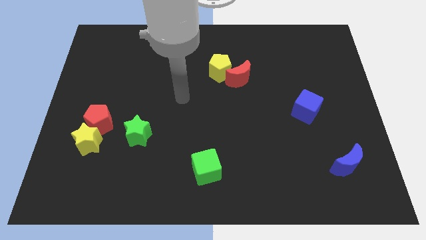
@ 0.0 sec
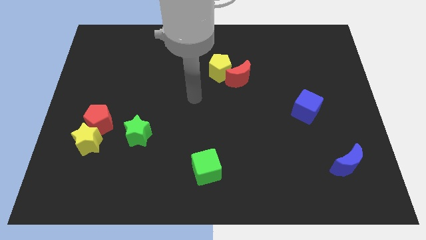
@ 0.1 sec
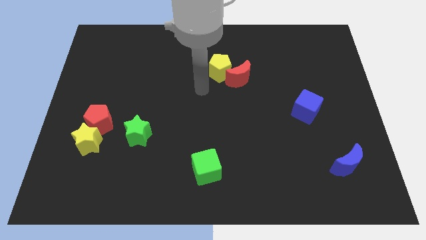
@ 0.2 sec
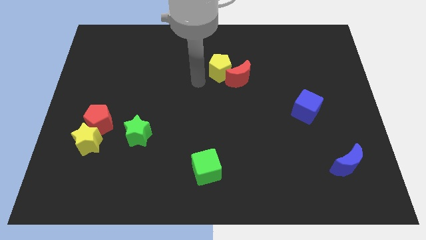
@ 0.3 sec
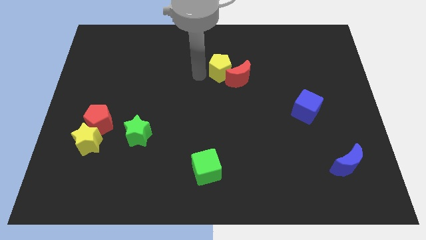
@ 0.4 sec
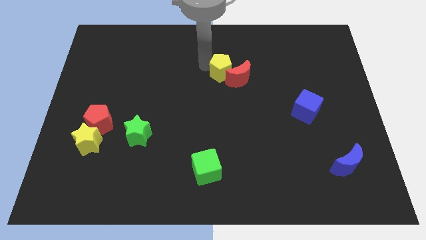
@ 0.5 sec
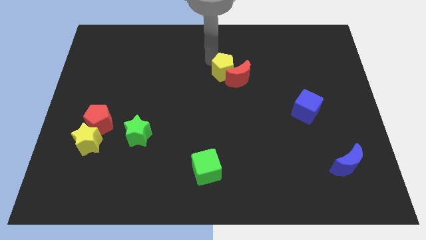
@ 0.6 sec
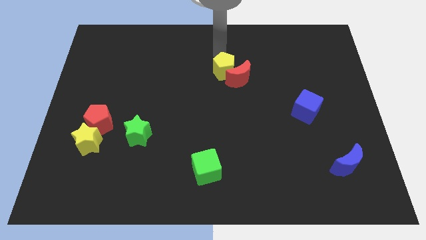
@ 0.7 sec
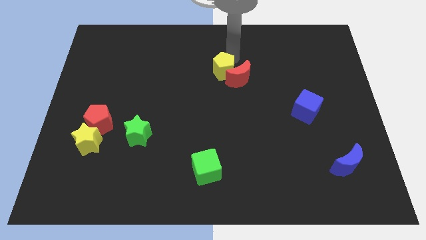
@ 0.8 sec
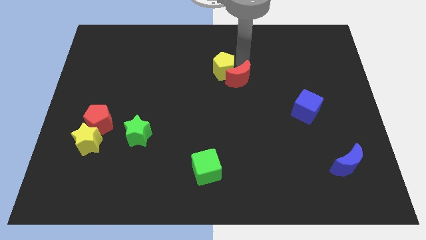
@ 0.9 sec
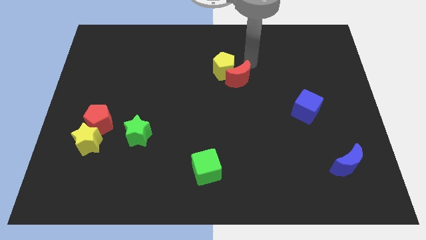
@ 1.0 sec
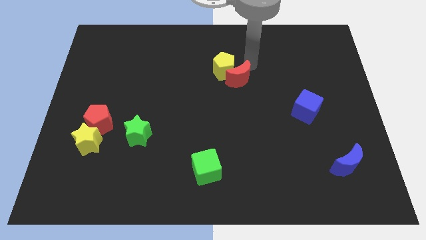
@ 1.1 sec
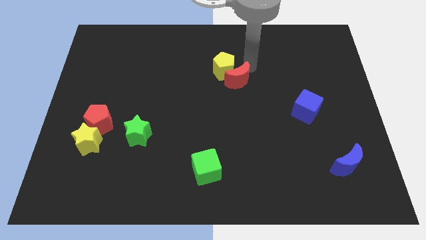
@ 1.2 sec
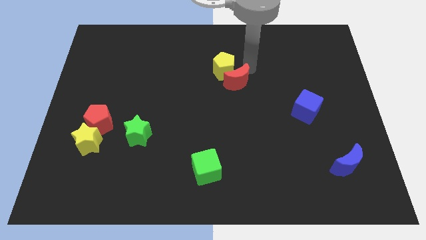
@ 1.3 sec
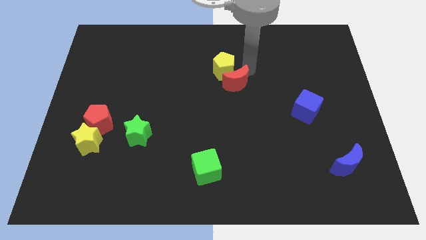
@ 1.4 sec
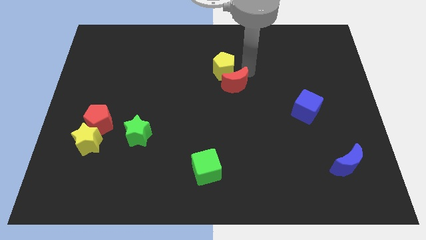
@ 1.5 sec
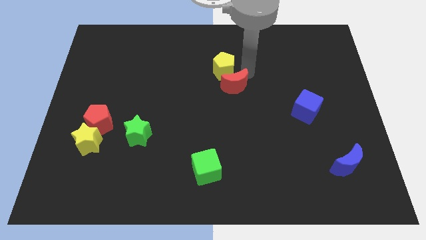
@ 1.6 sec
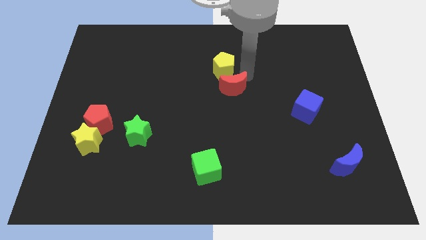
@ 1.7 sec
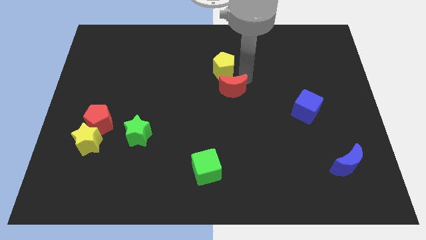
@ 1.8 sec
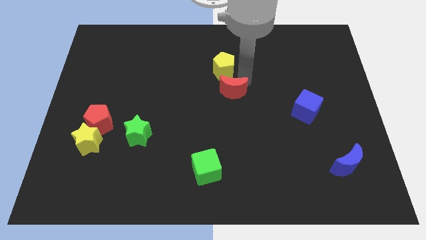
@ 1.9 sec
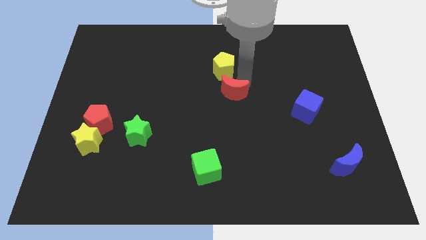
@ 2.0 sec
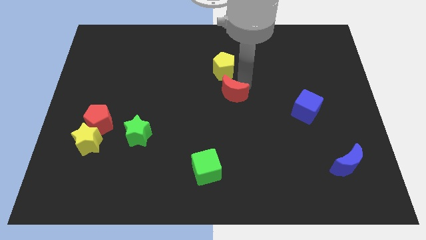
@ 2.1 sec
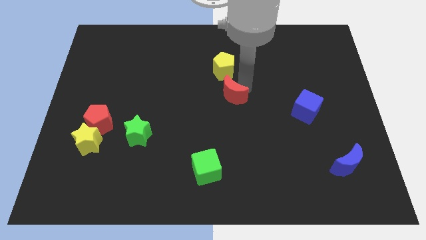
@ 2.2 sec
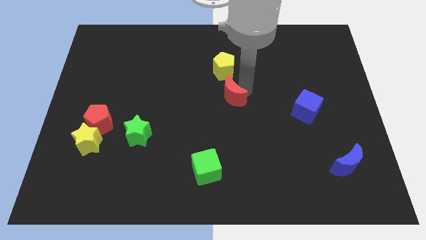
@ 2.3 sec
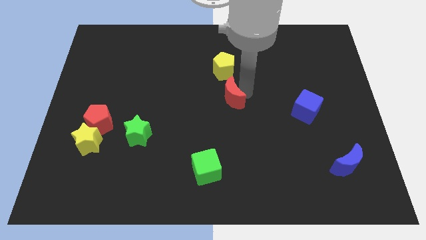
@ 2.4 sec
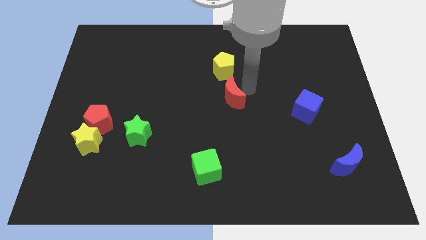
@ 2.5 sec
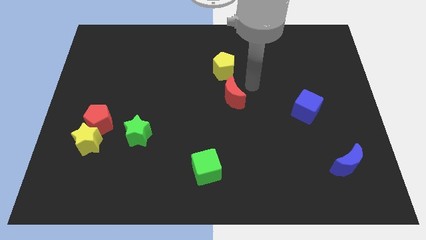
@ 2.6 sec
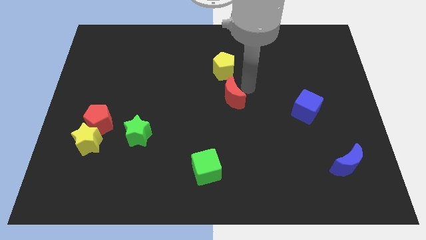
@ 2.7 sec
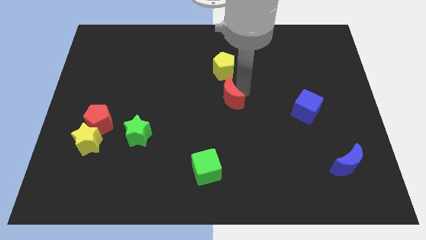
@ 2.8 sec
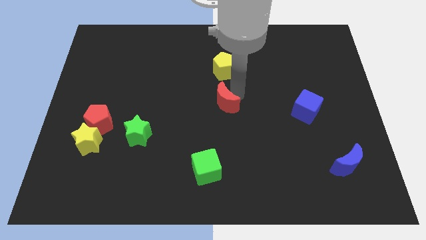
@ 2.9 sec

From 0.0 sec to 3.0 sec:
slide the red moon slightly downwards and left

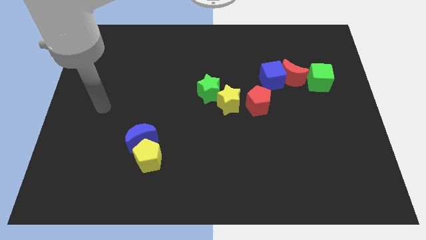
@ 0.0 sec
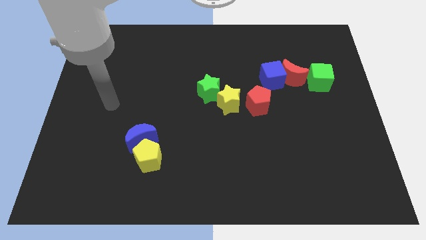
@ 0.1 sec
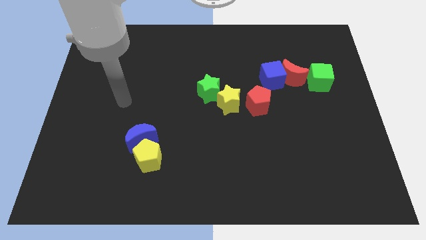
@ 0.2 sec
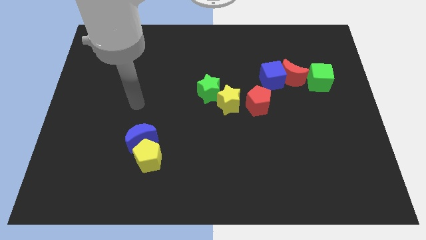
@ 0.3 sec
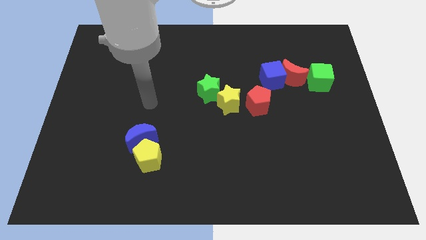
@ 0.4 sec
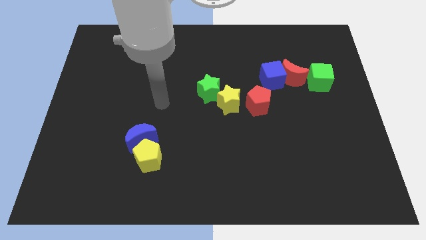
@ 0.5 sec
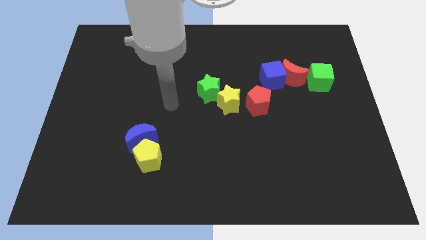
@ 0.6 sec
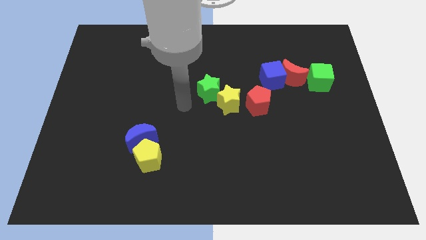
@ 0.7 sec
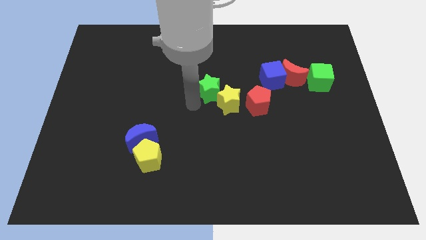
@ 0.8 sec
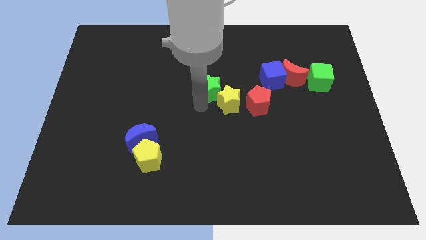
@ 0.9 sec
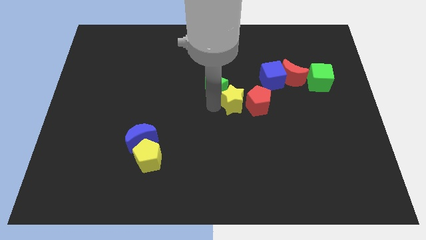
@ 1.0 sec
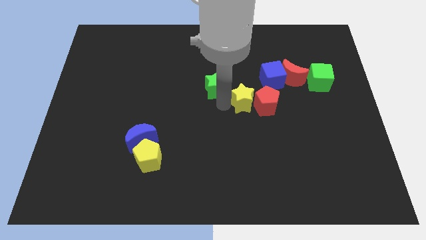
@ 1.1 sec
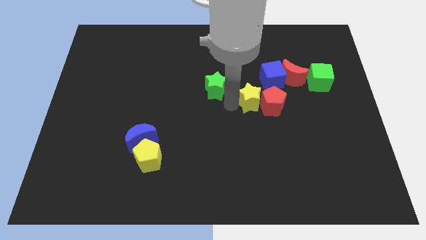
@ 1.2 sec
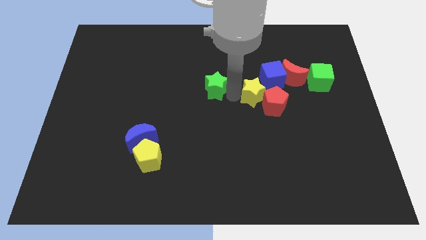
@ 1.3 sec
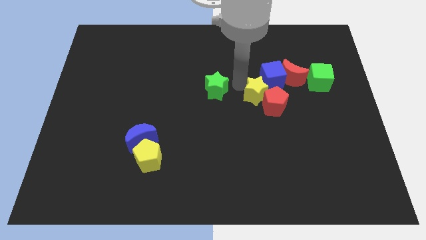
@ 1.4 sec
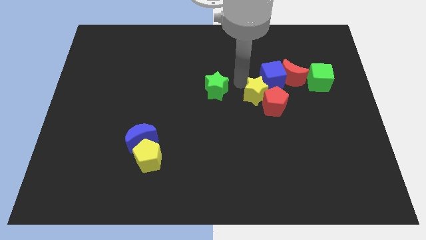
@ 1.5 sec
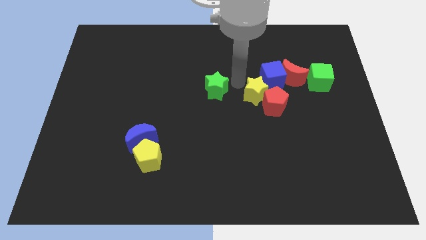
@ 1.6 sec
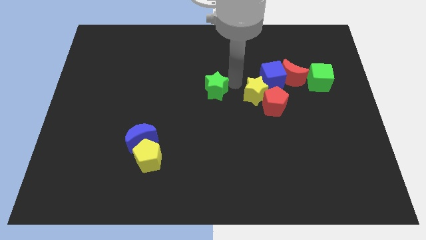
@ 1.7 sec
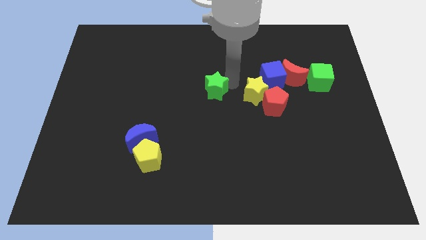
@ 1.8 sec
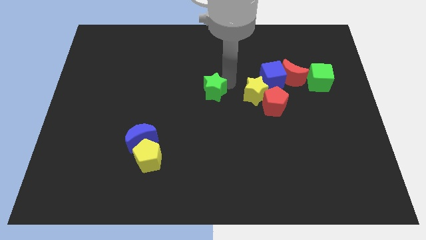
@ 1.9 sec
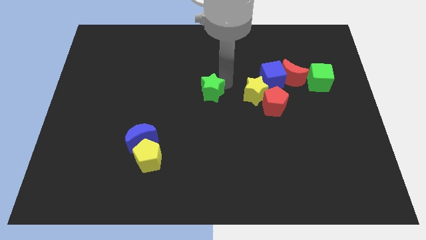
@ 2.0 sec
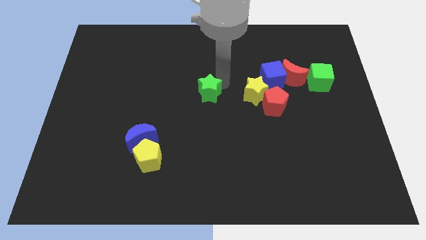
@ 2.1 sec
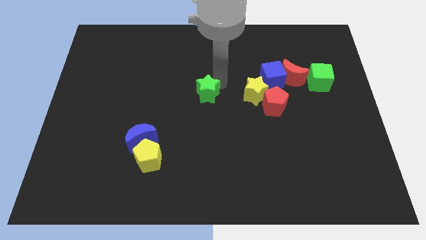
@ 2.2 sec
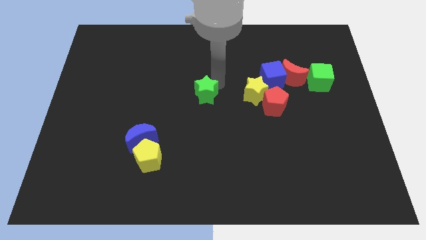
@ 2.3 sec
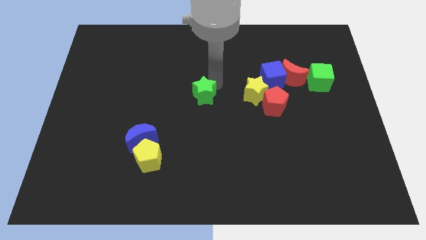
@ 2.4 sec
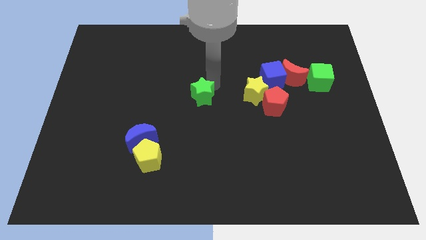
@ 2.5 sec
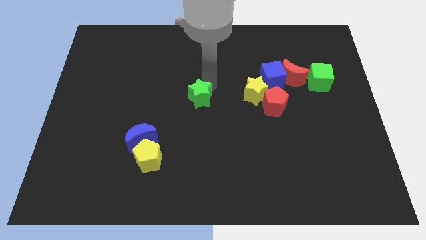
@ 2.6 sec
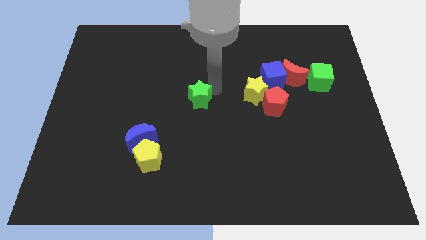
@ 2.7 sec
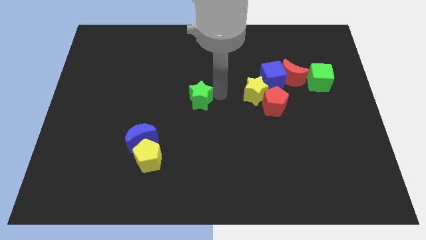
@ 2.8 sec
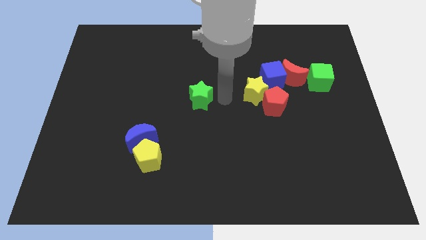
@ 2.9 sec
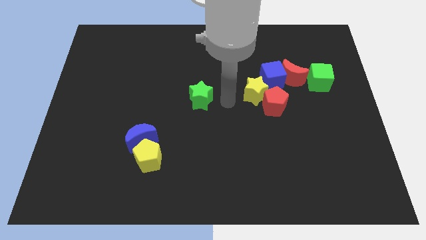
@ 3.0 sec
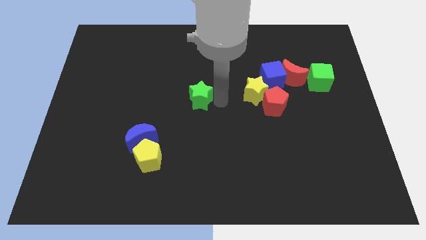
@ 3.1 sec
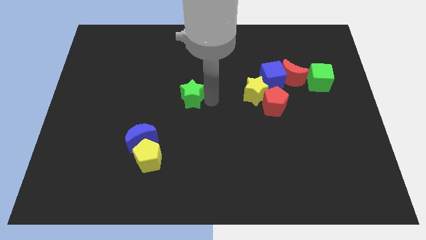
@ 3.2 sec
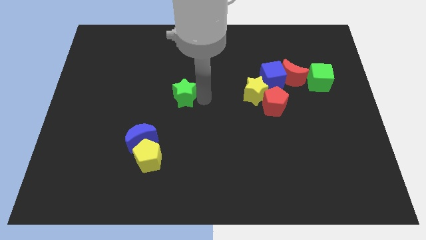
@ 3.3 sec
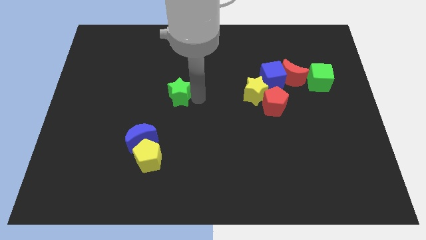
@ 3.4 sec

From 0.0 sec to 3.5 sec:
slightly move the green star left

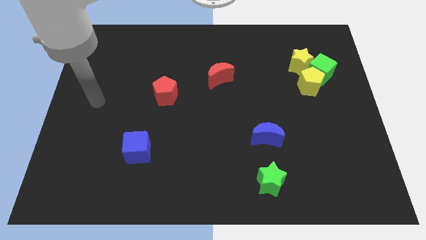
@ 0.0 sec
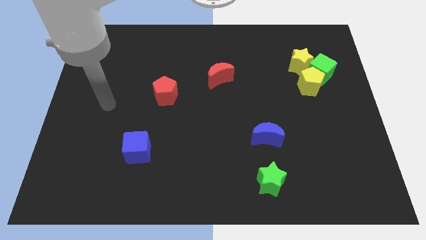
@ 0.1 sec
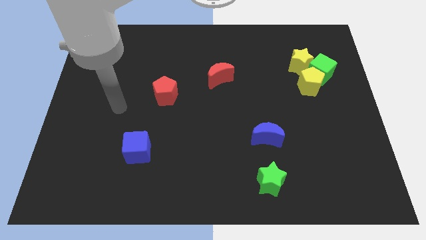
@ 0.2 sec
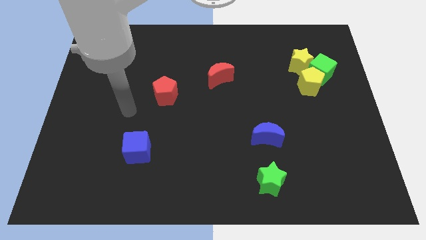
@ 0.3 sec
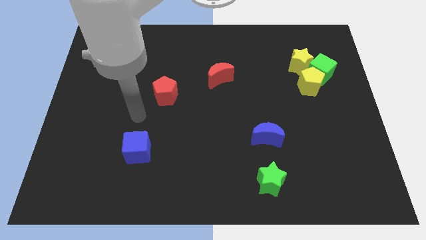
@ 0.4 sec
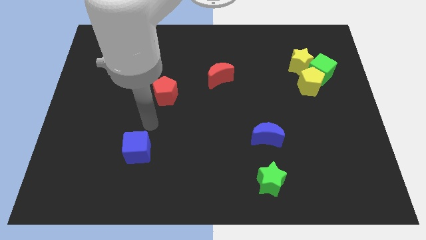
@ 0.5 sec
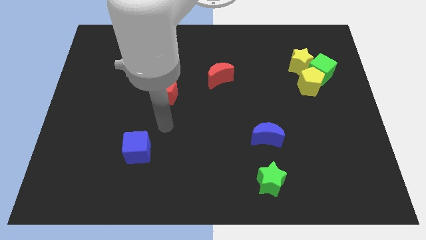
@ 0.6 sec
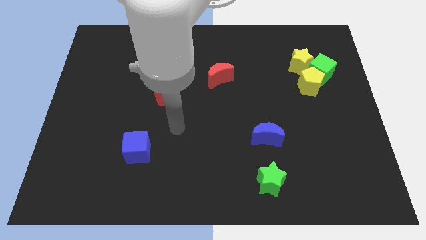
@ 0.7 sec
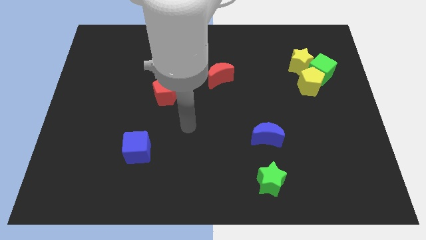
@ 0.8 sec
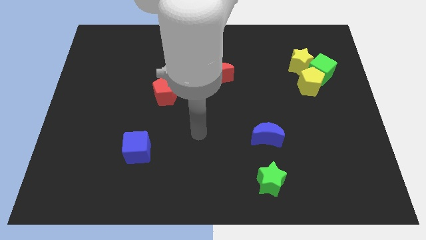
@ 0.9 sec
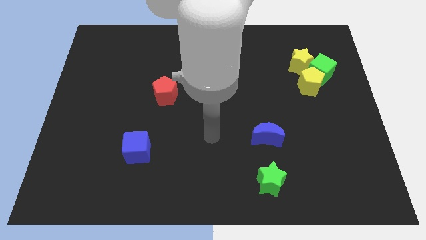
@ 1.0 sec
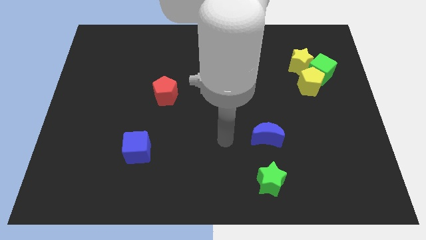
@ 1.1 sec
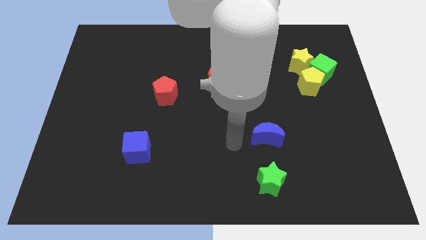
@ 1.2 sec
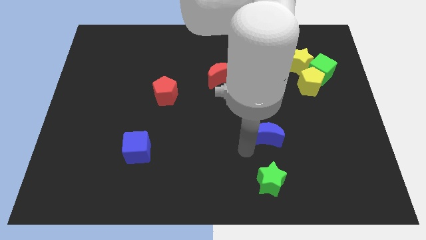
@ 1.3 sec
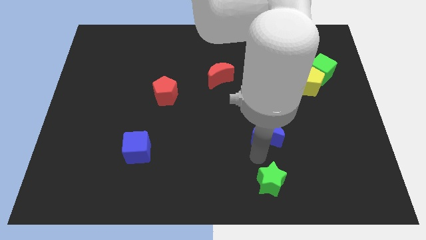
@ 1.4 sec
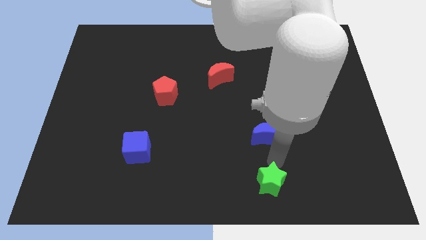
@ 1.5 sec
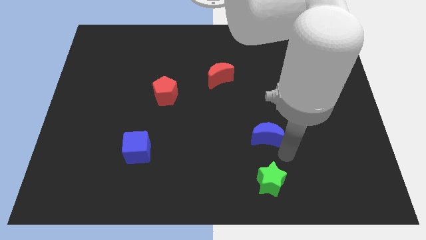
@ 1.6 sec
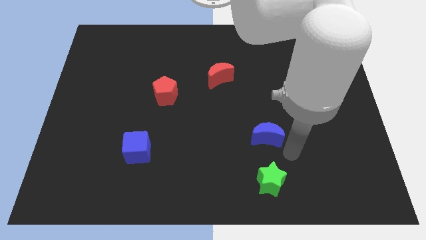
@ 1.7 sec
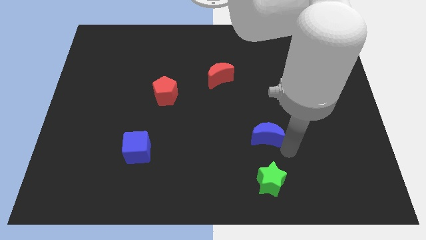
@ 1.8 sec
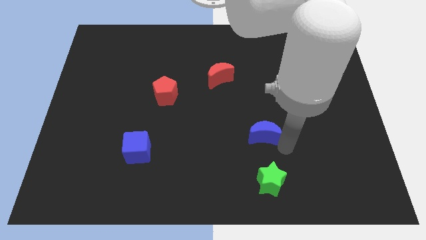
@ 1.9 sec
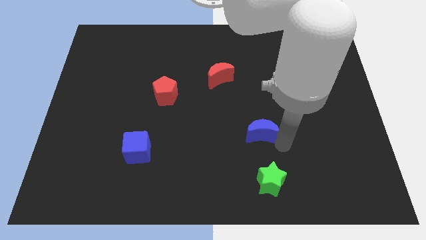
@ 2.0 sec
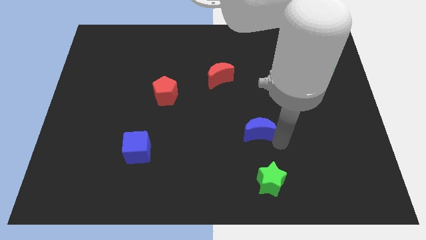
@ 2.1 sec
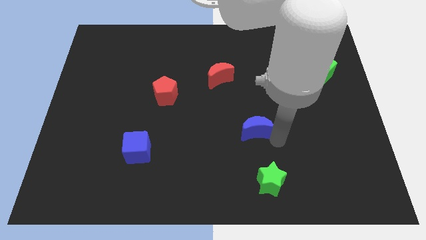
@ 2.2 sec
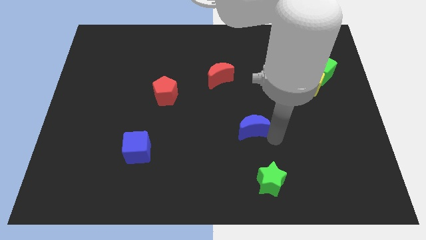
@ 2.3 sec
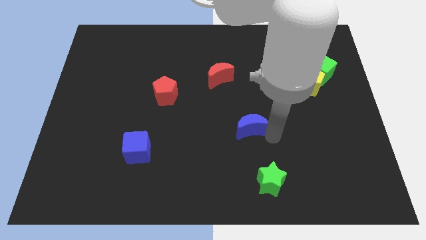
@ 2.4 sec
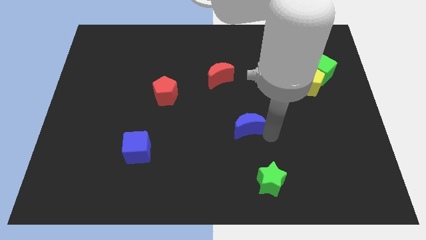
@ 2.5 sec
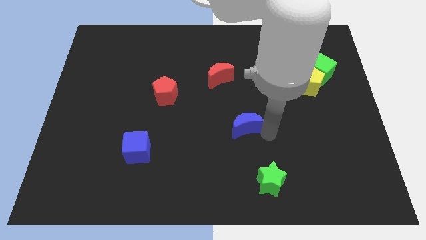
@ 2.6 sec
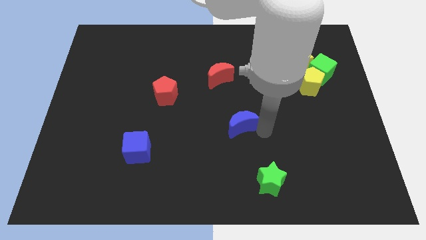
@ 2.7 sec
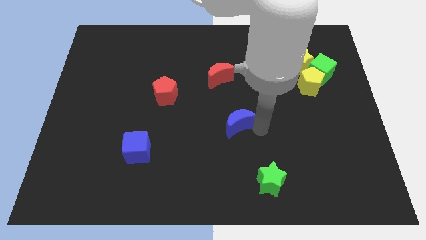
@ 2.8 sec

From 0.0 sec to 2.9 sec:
slightly move the blue moon up and left
